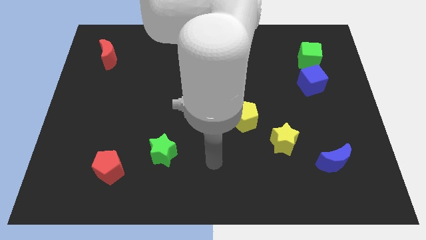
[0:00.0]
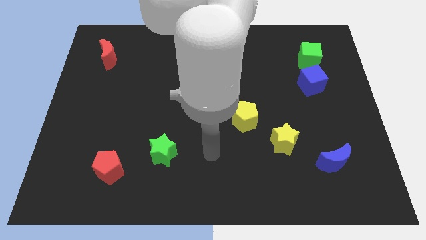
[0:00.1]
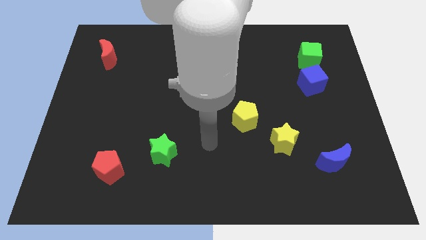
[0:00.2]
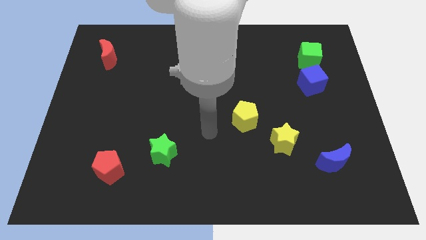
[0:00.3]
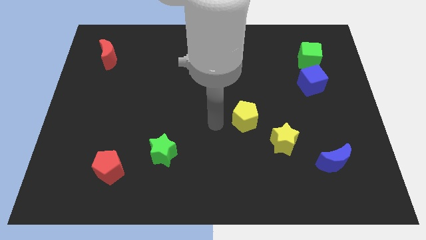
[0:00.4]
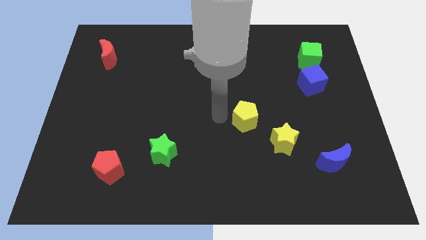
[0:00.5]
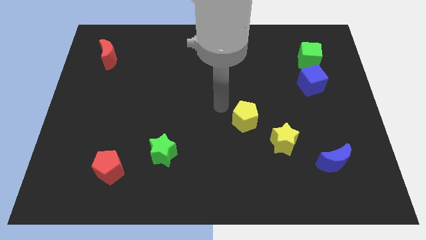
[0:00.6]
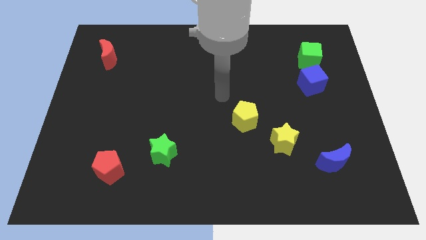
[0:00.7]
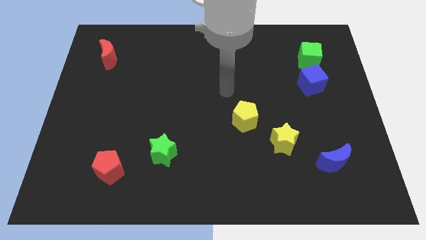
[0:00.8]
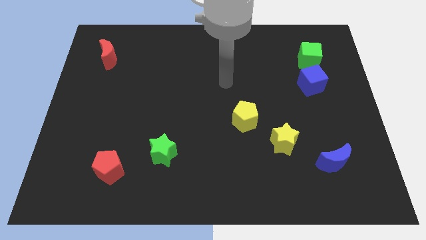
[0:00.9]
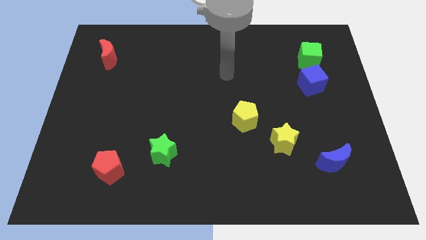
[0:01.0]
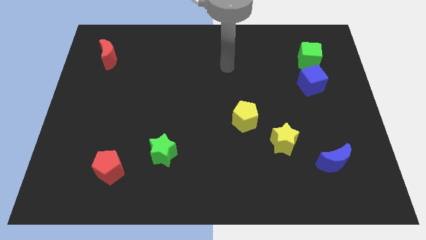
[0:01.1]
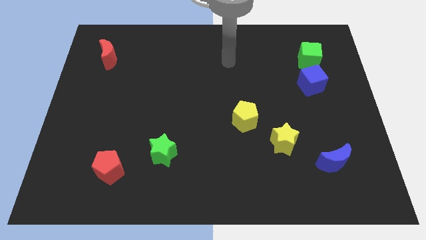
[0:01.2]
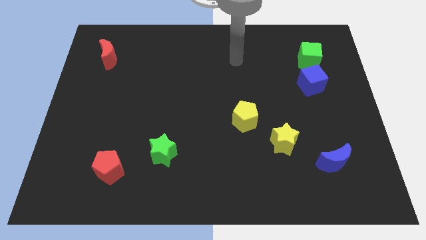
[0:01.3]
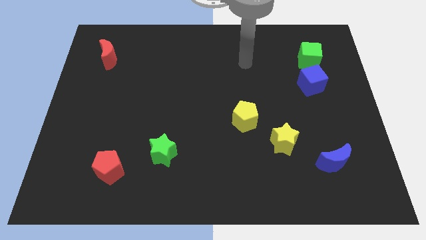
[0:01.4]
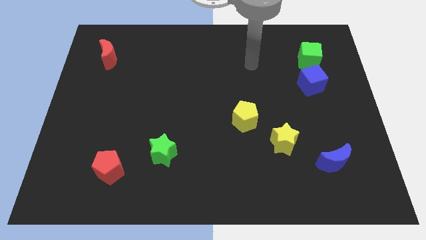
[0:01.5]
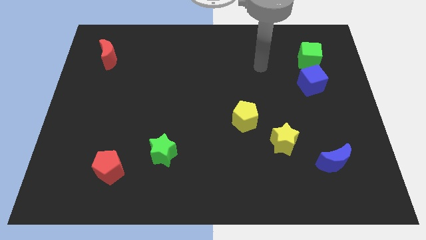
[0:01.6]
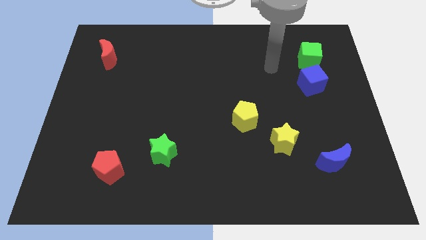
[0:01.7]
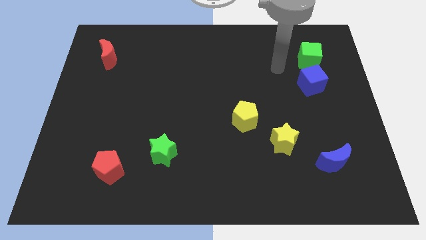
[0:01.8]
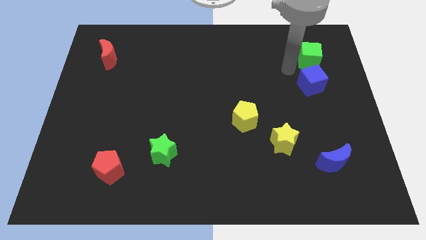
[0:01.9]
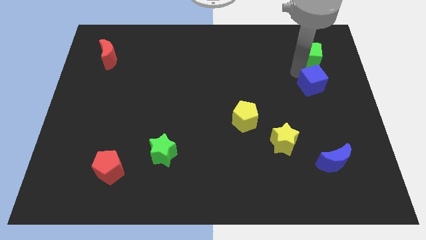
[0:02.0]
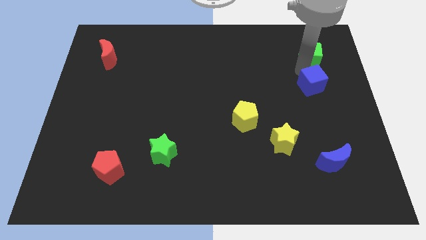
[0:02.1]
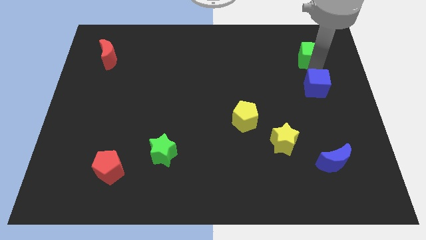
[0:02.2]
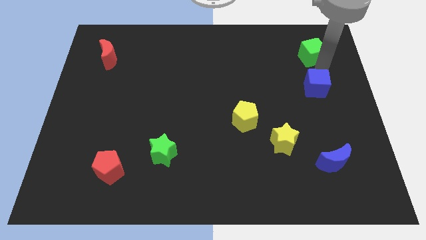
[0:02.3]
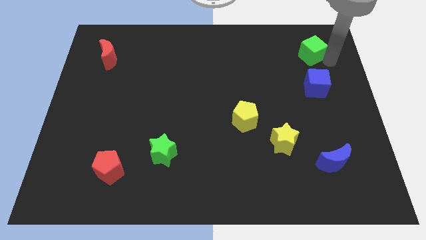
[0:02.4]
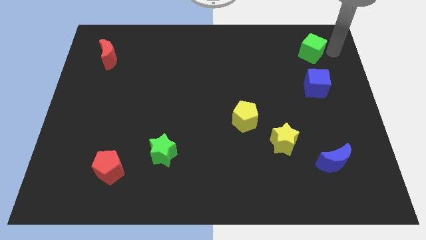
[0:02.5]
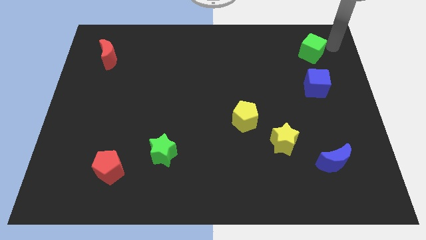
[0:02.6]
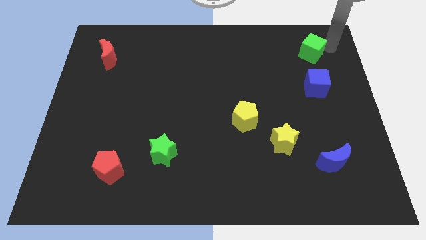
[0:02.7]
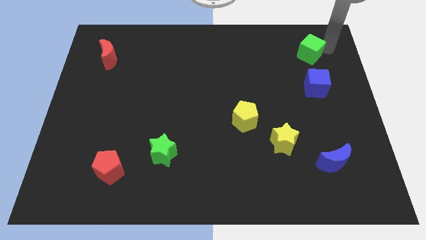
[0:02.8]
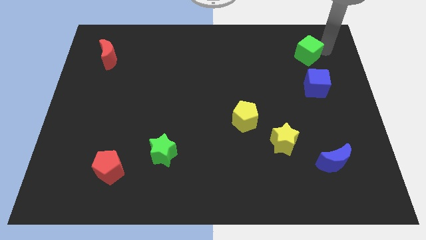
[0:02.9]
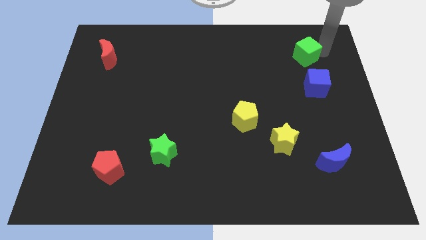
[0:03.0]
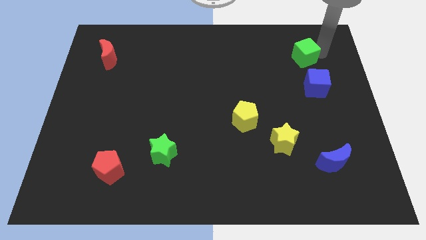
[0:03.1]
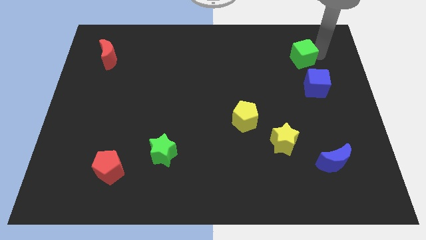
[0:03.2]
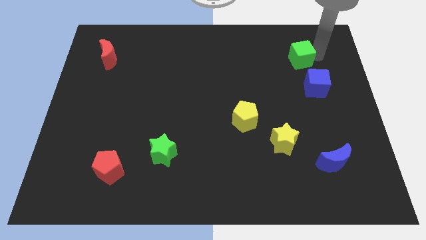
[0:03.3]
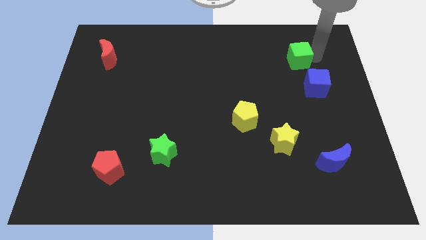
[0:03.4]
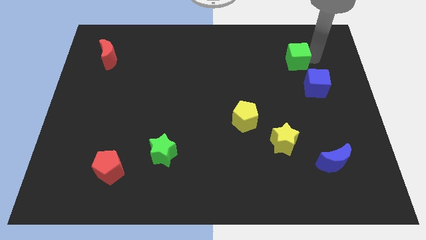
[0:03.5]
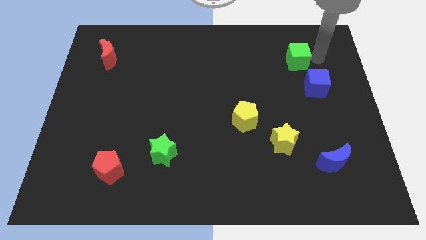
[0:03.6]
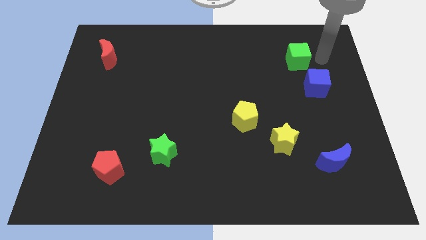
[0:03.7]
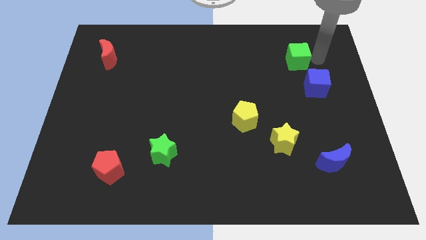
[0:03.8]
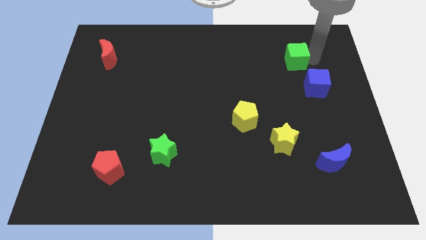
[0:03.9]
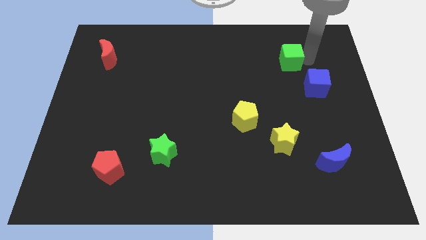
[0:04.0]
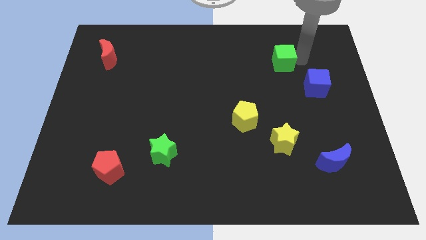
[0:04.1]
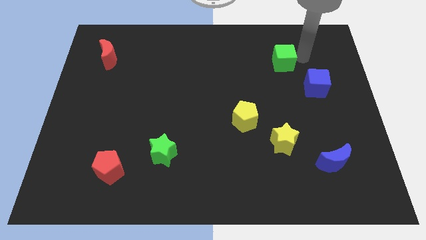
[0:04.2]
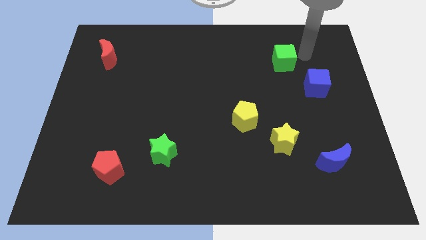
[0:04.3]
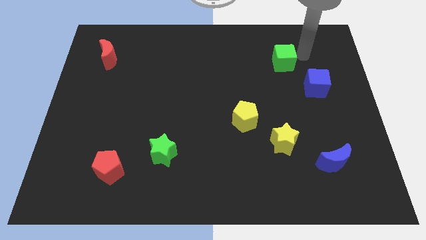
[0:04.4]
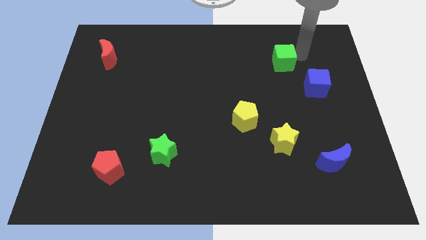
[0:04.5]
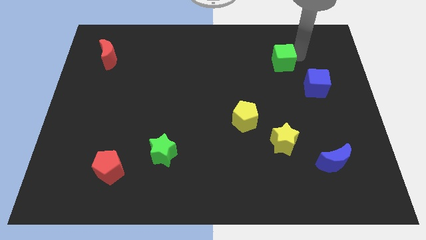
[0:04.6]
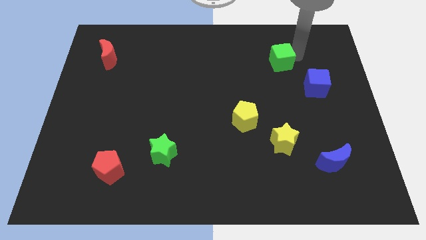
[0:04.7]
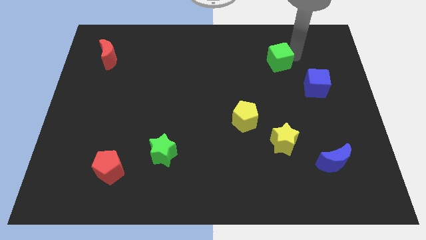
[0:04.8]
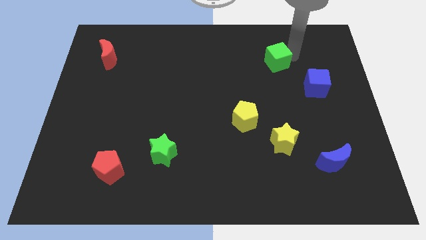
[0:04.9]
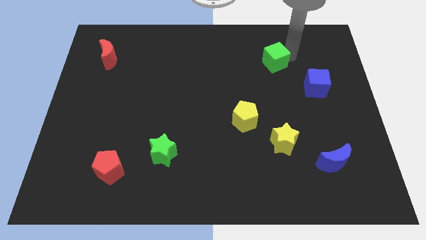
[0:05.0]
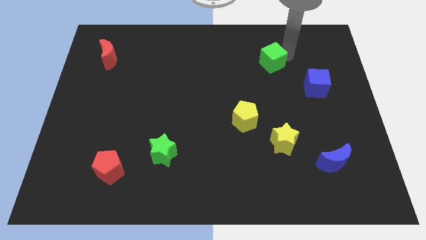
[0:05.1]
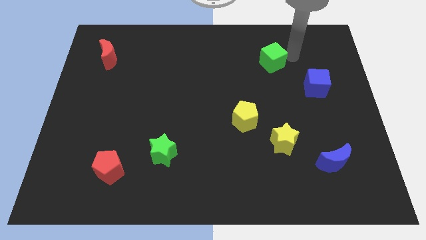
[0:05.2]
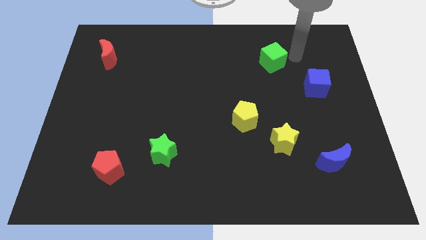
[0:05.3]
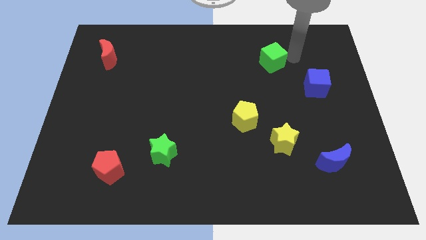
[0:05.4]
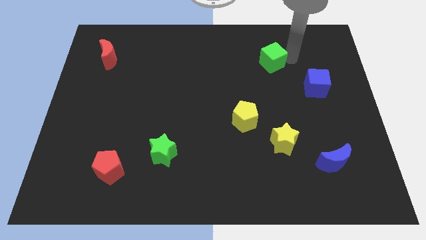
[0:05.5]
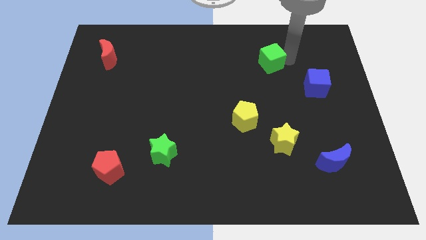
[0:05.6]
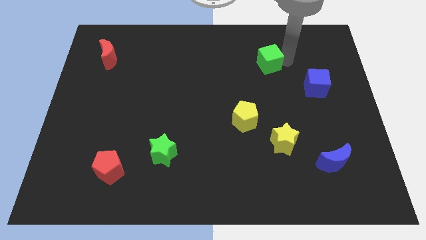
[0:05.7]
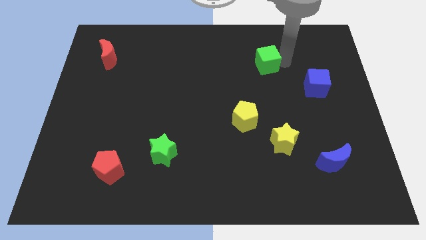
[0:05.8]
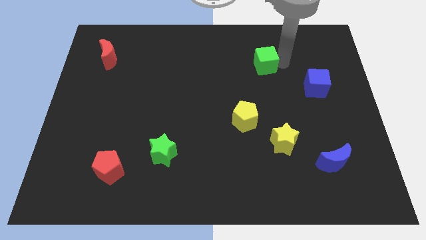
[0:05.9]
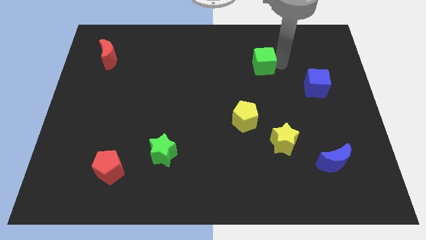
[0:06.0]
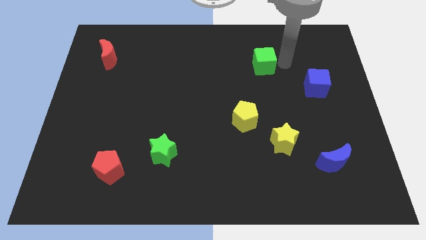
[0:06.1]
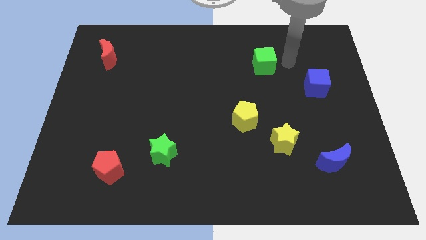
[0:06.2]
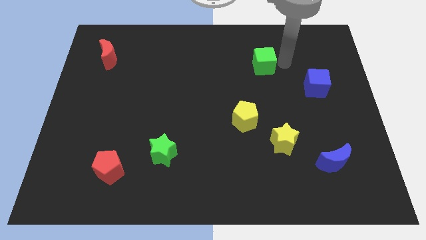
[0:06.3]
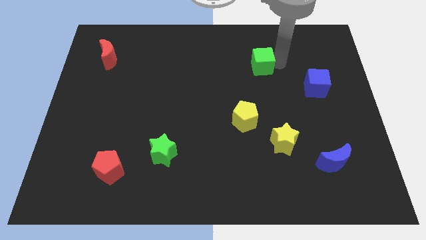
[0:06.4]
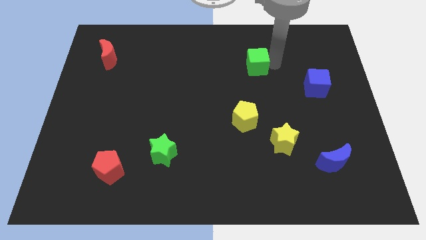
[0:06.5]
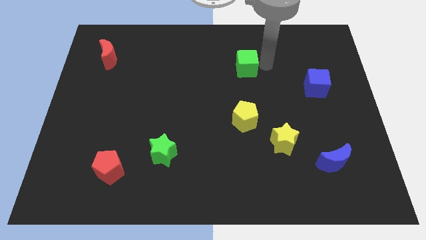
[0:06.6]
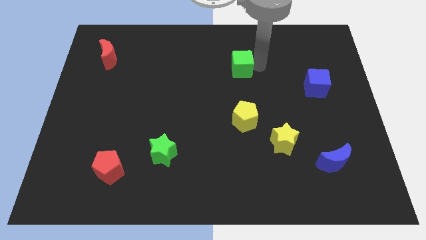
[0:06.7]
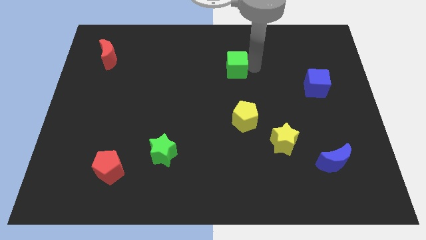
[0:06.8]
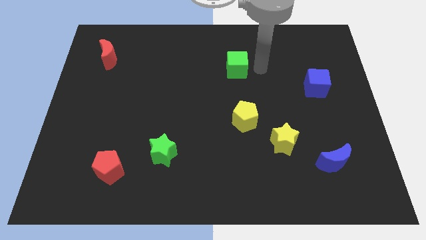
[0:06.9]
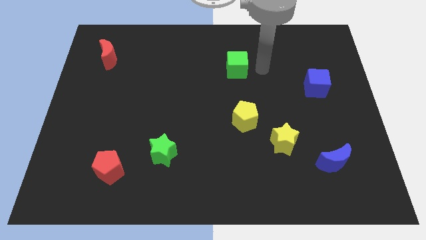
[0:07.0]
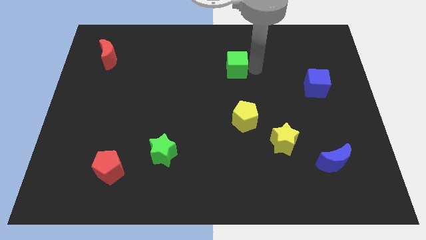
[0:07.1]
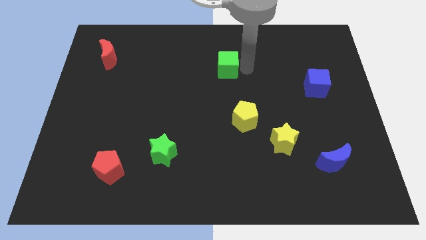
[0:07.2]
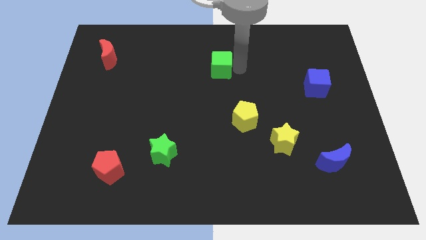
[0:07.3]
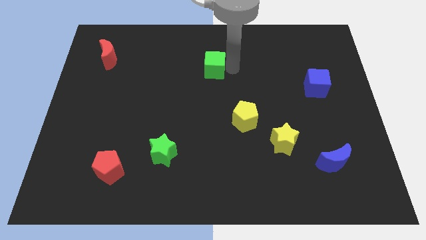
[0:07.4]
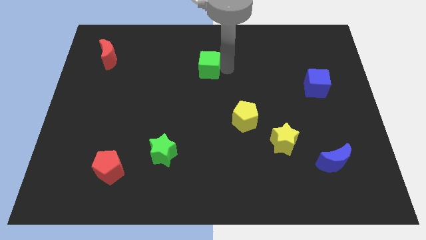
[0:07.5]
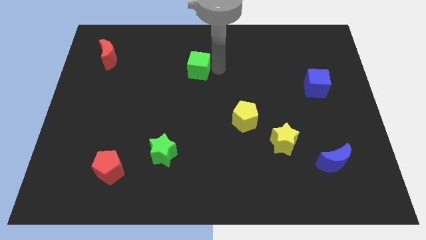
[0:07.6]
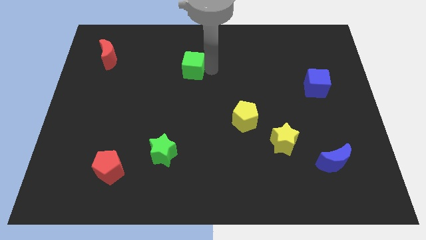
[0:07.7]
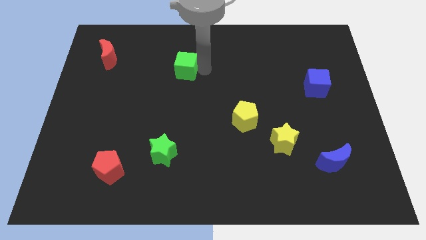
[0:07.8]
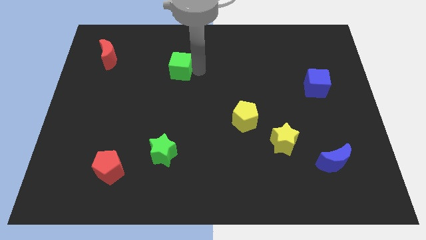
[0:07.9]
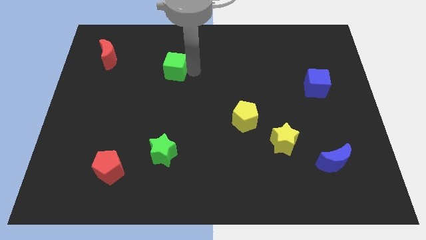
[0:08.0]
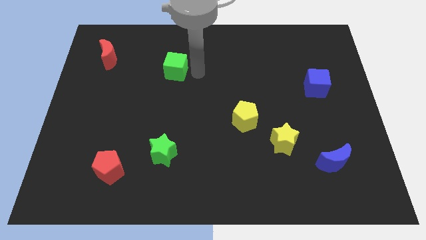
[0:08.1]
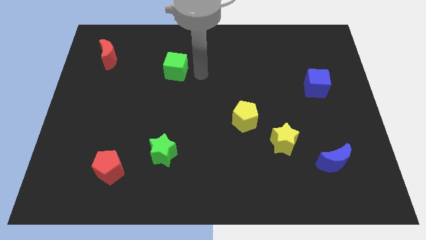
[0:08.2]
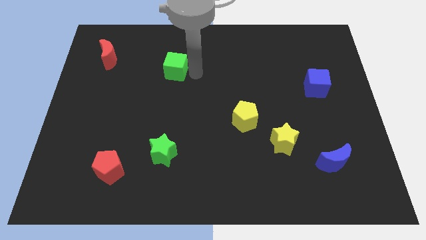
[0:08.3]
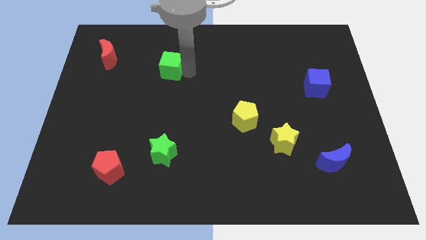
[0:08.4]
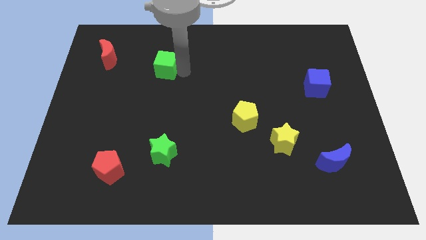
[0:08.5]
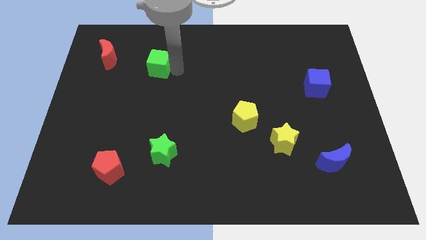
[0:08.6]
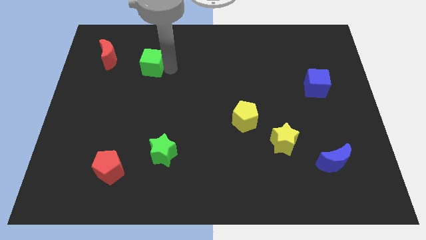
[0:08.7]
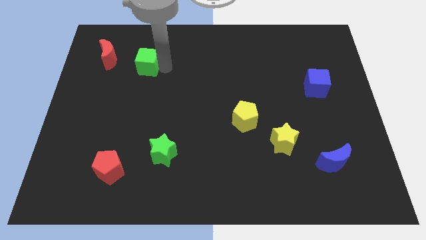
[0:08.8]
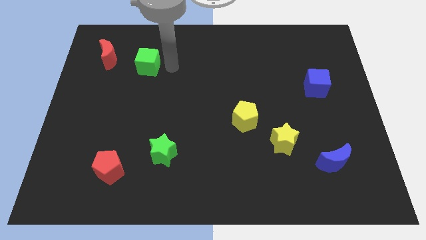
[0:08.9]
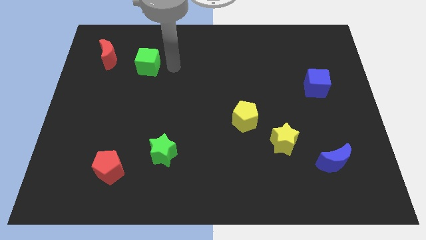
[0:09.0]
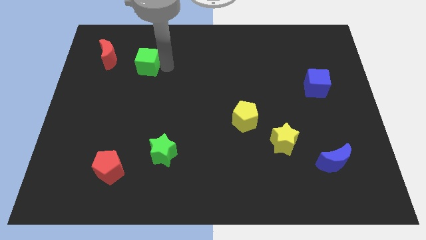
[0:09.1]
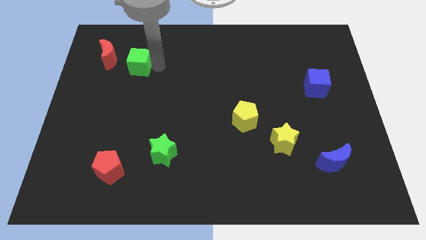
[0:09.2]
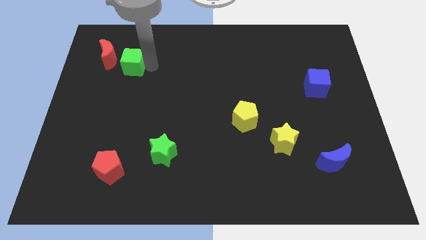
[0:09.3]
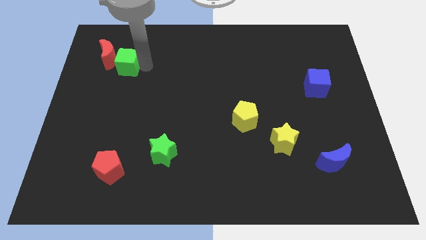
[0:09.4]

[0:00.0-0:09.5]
put the green cube towards the red moon
